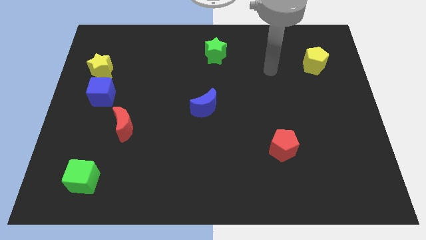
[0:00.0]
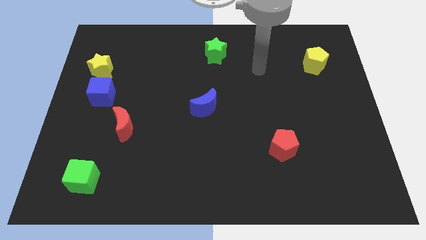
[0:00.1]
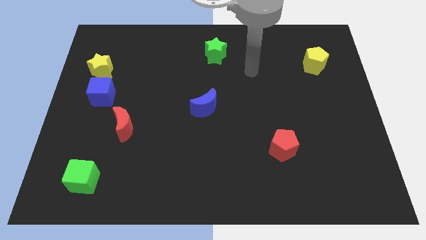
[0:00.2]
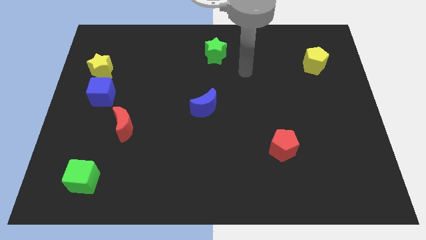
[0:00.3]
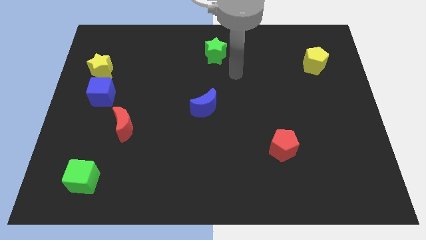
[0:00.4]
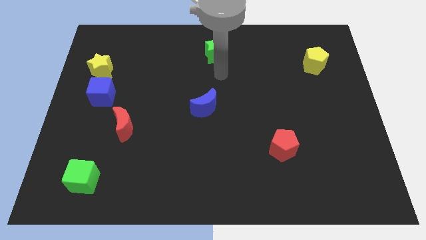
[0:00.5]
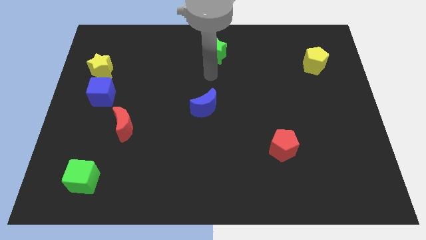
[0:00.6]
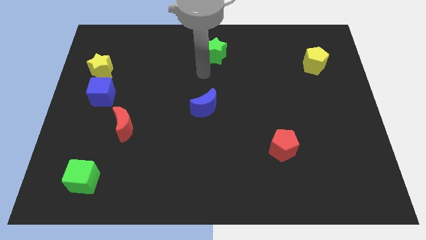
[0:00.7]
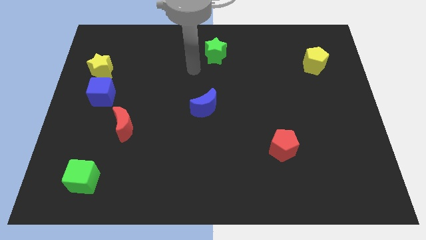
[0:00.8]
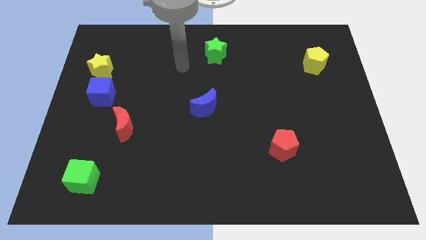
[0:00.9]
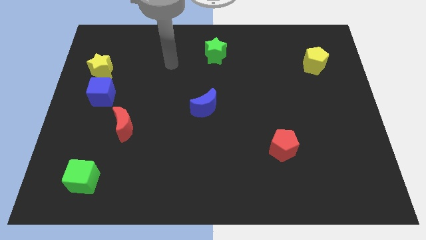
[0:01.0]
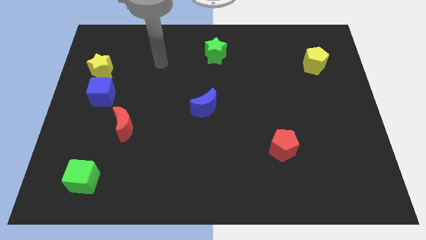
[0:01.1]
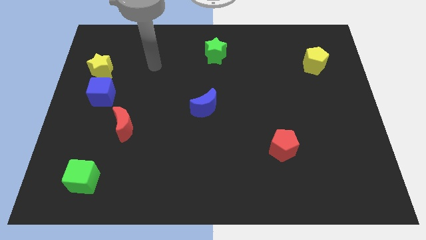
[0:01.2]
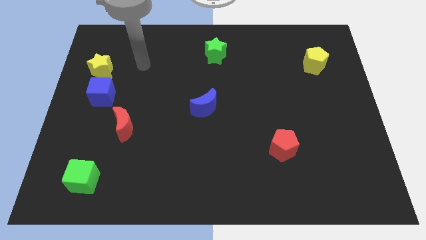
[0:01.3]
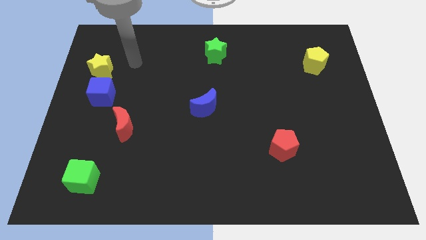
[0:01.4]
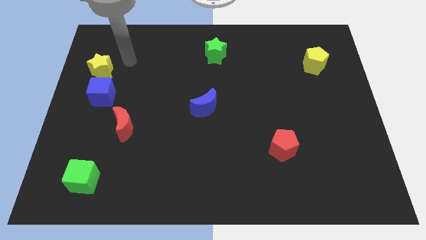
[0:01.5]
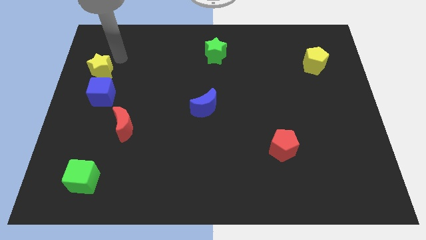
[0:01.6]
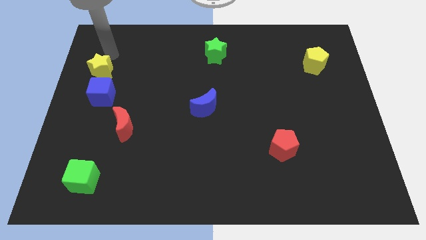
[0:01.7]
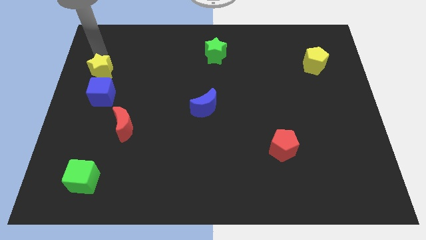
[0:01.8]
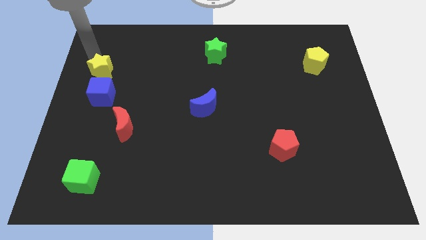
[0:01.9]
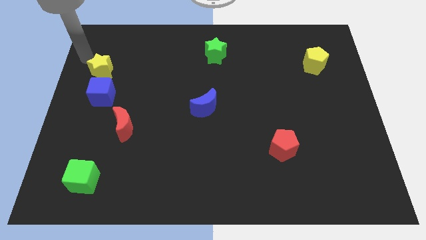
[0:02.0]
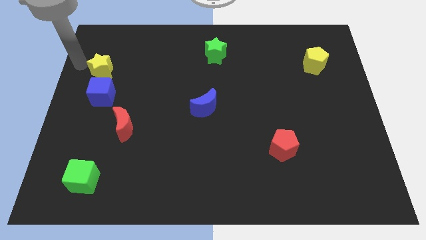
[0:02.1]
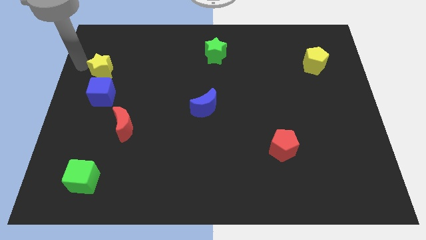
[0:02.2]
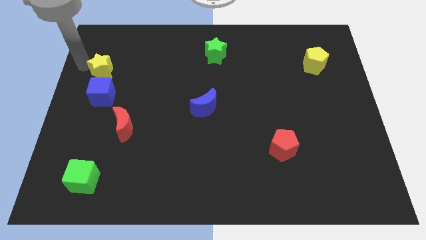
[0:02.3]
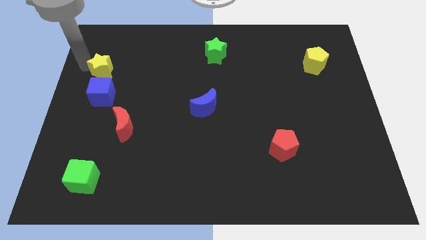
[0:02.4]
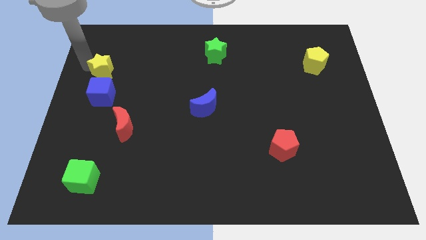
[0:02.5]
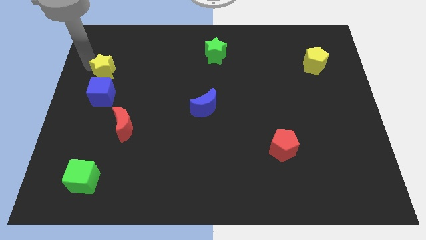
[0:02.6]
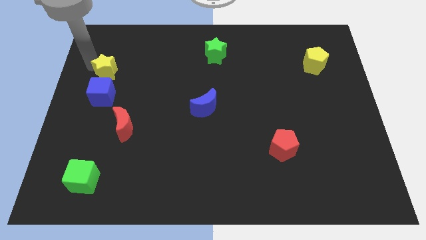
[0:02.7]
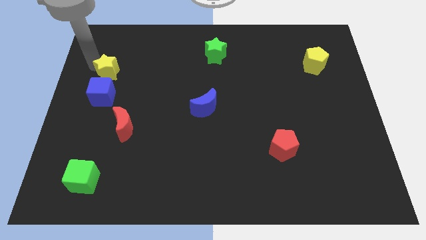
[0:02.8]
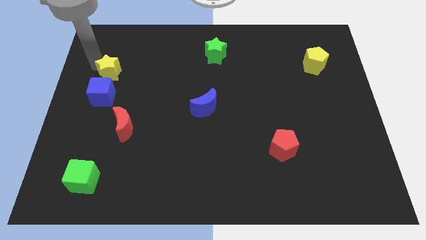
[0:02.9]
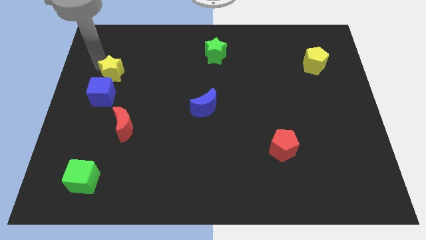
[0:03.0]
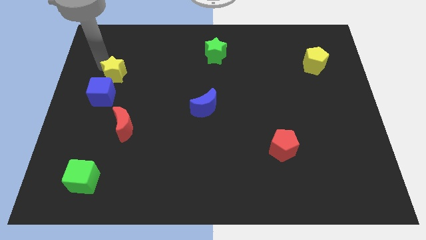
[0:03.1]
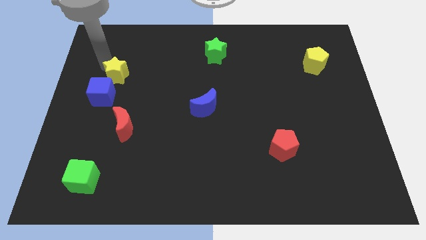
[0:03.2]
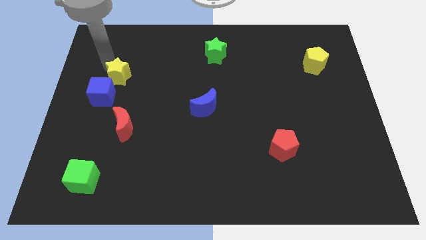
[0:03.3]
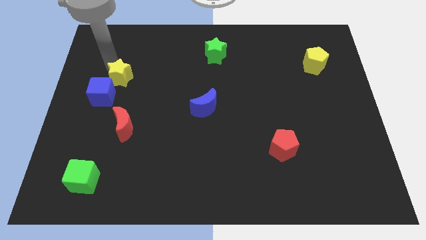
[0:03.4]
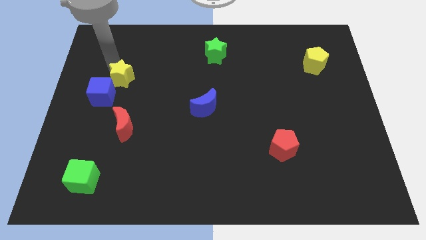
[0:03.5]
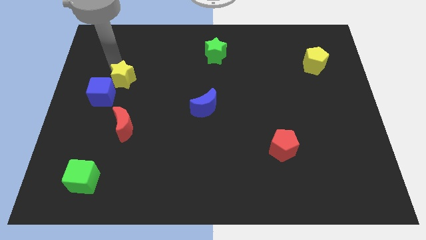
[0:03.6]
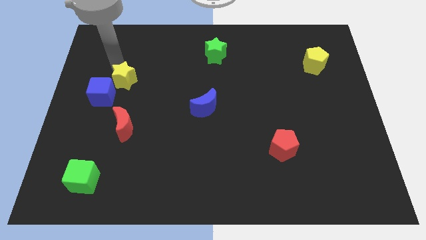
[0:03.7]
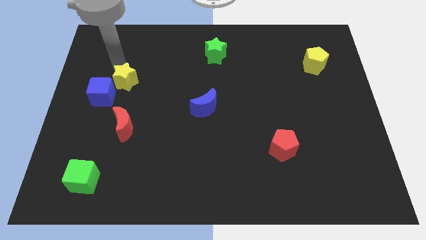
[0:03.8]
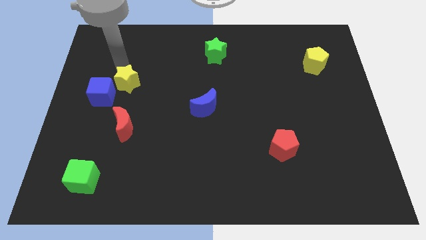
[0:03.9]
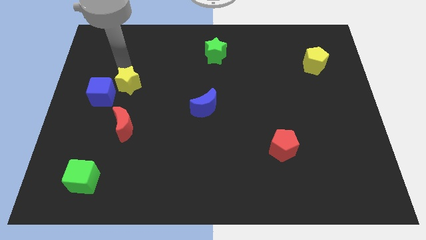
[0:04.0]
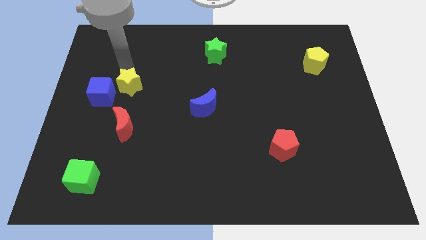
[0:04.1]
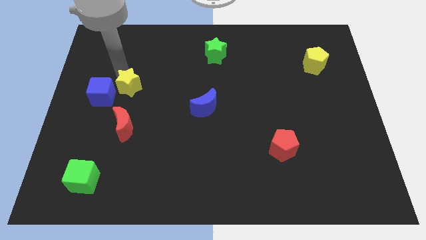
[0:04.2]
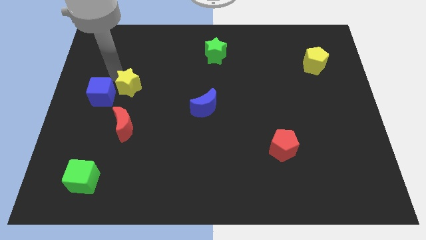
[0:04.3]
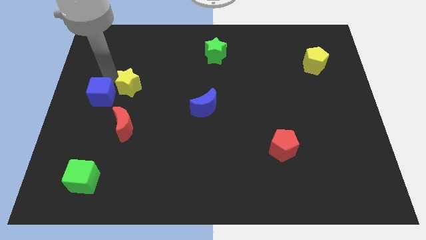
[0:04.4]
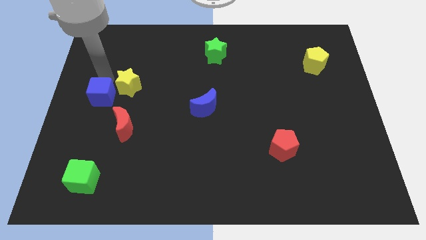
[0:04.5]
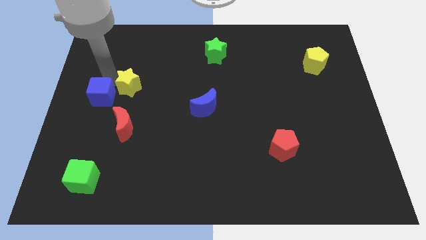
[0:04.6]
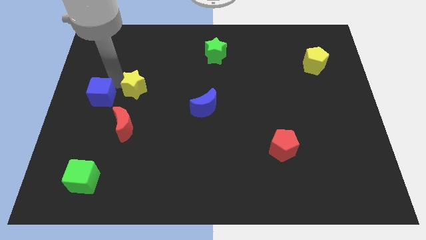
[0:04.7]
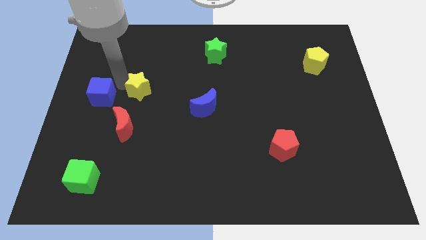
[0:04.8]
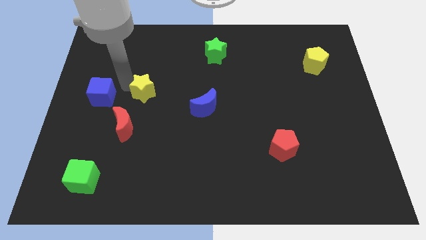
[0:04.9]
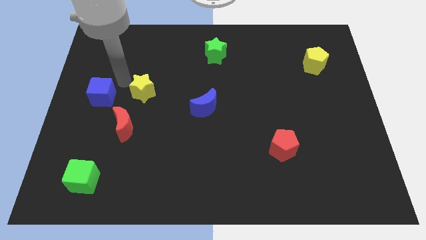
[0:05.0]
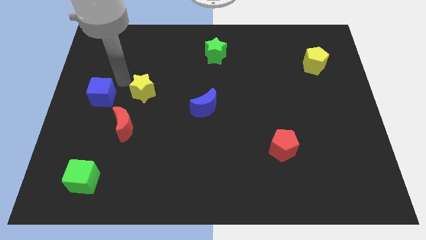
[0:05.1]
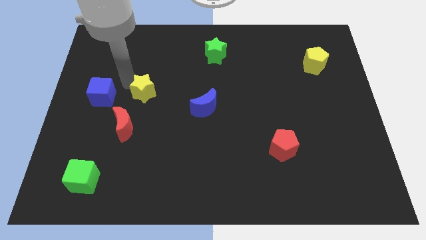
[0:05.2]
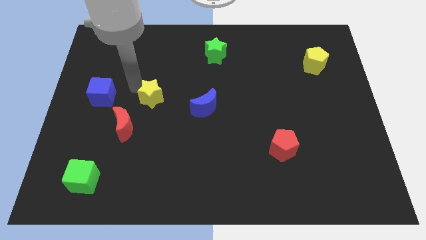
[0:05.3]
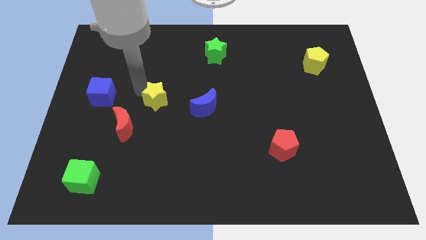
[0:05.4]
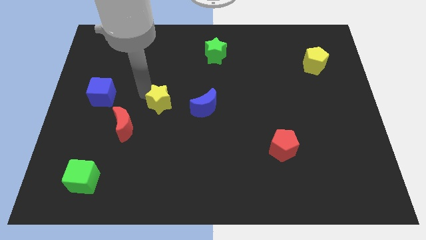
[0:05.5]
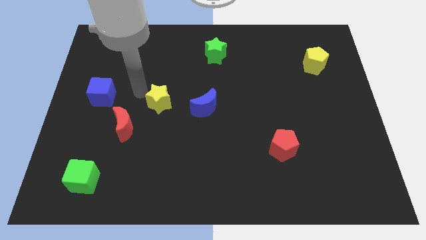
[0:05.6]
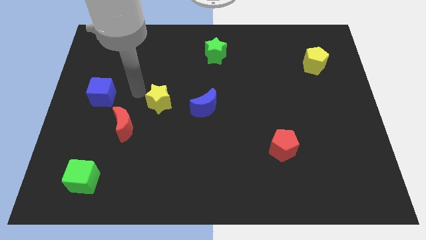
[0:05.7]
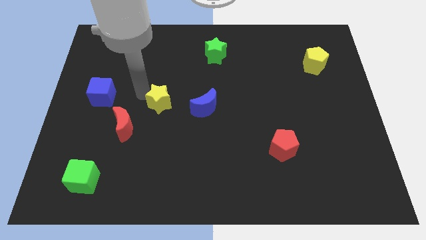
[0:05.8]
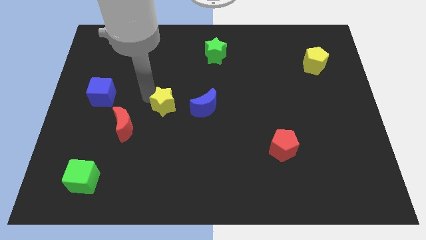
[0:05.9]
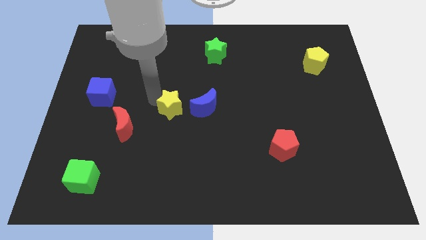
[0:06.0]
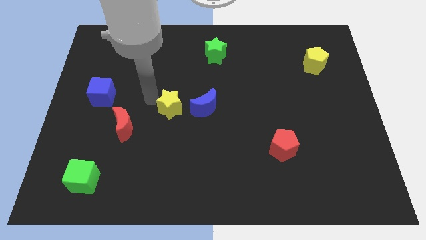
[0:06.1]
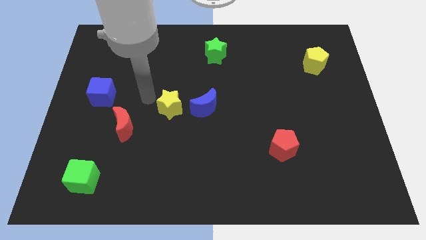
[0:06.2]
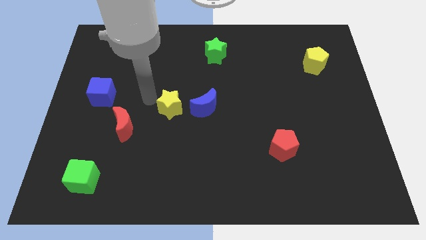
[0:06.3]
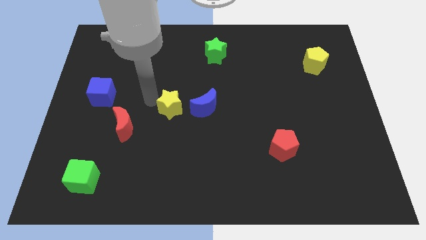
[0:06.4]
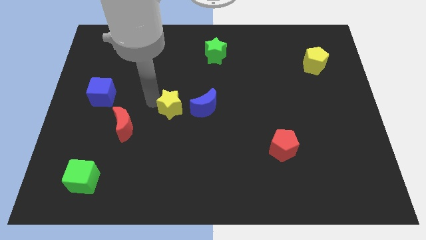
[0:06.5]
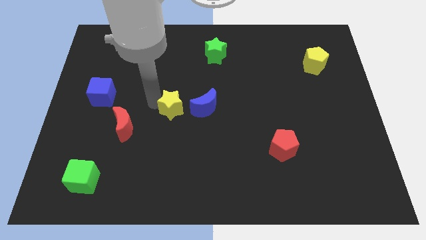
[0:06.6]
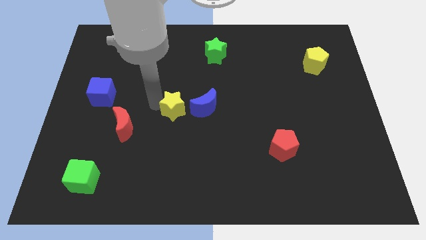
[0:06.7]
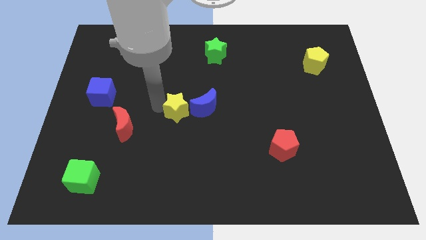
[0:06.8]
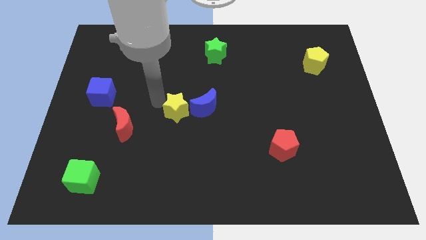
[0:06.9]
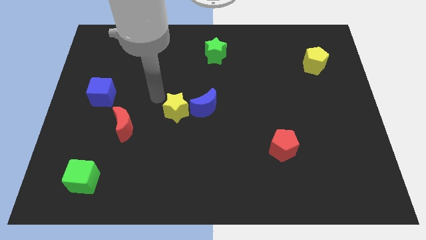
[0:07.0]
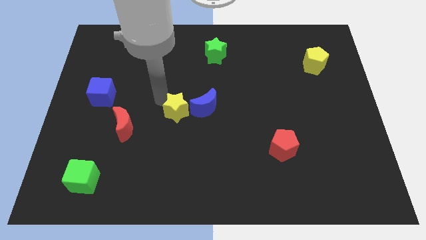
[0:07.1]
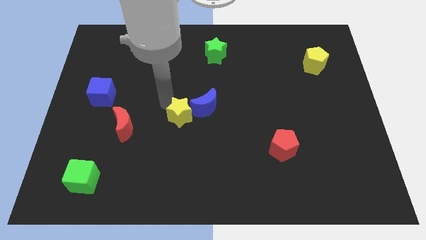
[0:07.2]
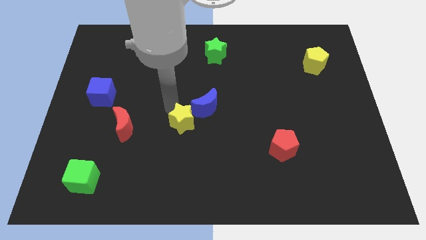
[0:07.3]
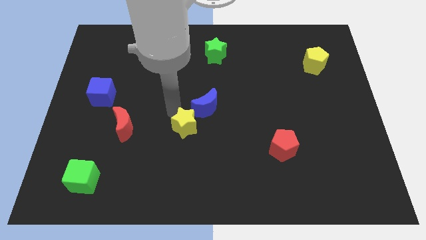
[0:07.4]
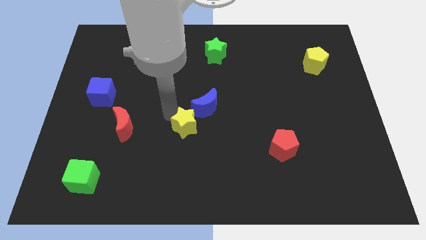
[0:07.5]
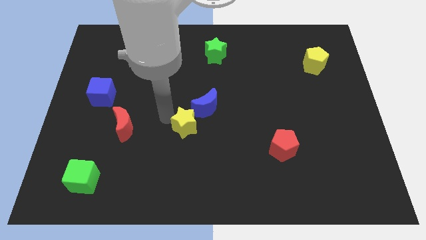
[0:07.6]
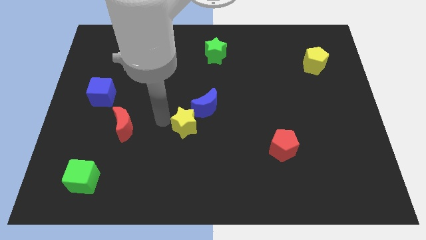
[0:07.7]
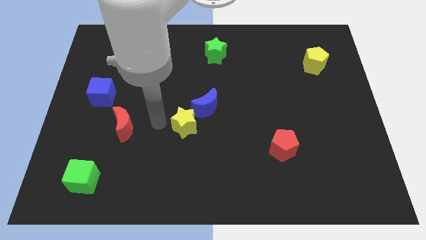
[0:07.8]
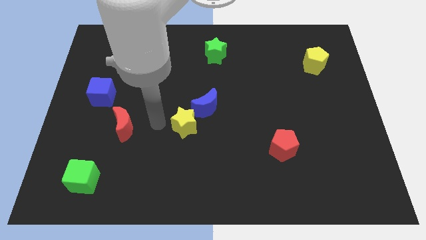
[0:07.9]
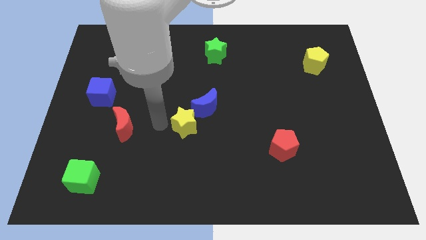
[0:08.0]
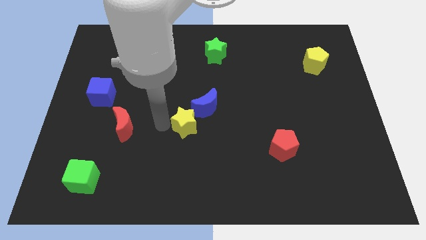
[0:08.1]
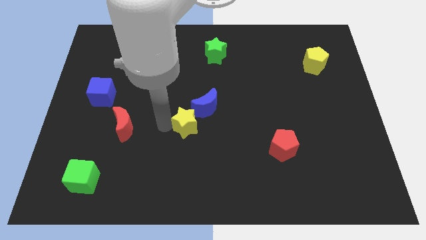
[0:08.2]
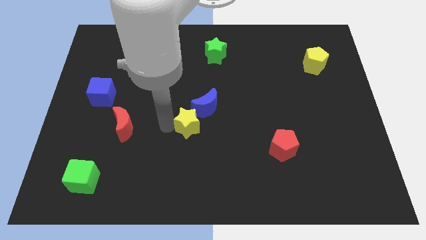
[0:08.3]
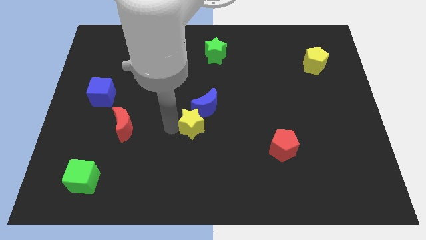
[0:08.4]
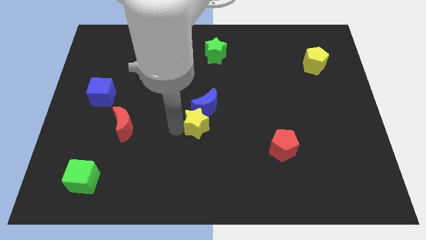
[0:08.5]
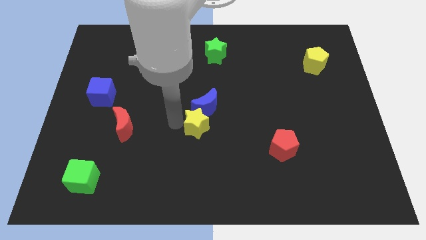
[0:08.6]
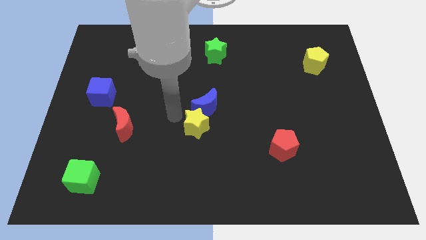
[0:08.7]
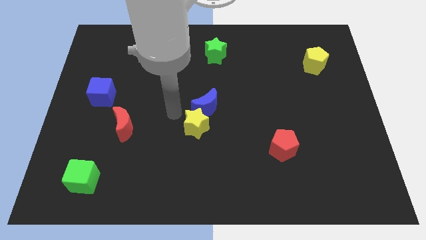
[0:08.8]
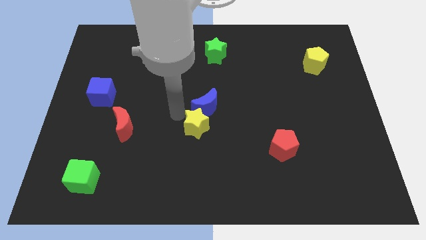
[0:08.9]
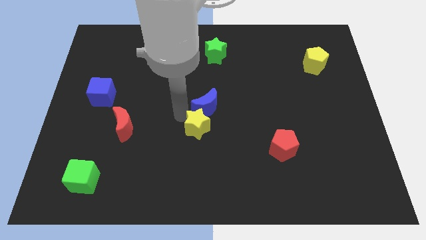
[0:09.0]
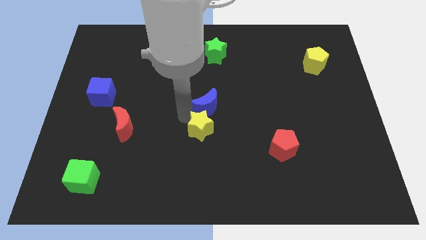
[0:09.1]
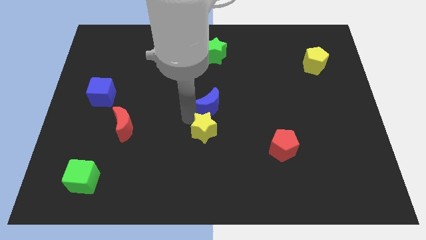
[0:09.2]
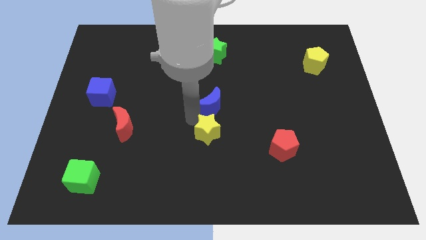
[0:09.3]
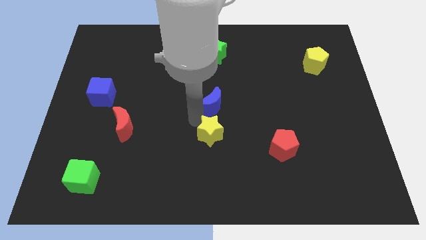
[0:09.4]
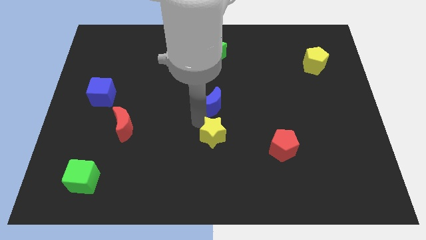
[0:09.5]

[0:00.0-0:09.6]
put the yellow star to the left of the red pentagon
